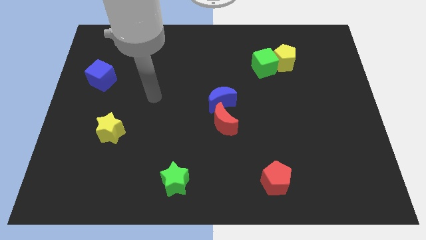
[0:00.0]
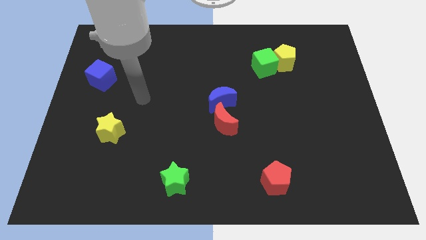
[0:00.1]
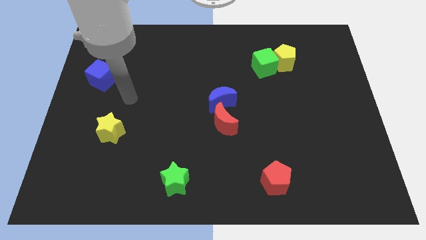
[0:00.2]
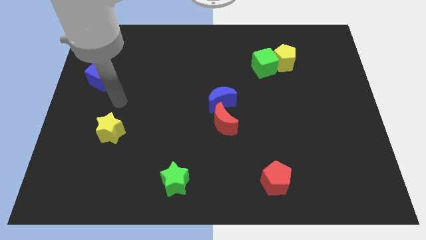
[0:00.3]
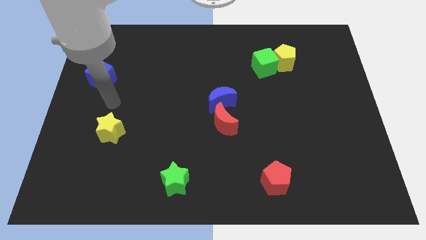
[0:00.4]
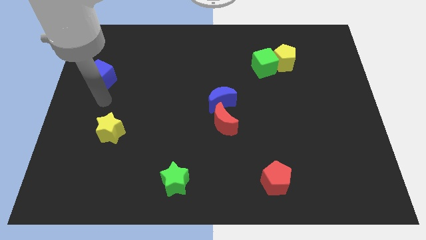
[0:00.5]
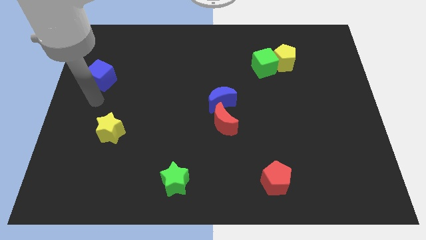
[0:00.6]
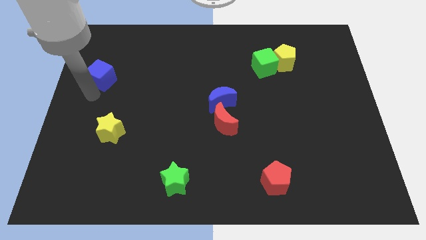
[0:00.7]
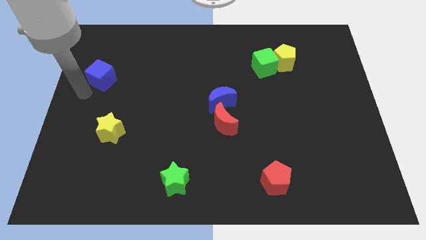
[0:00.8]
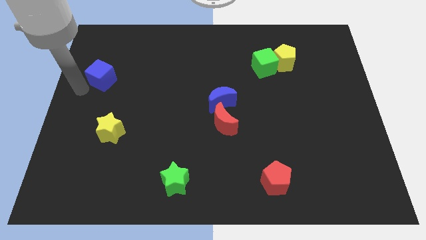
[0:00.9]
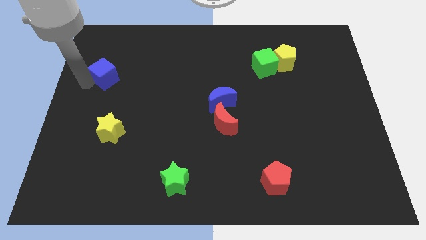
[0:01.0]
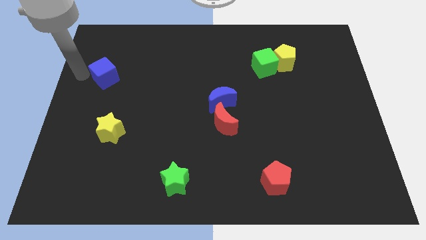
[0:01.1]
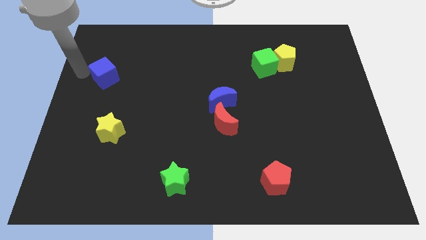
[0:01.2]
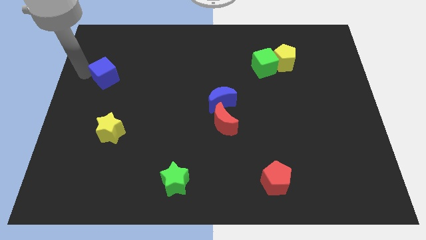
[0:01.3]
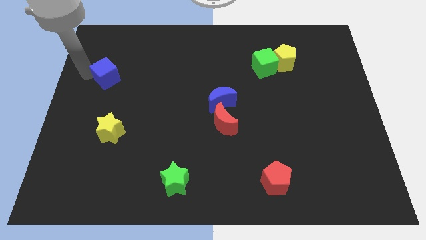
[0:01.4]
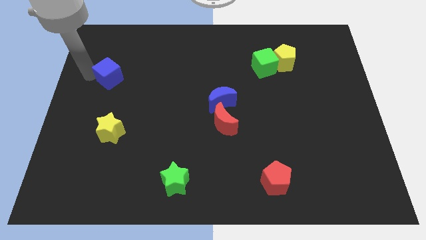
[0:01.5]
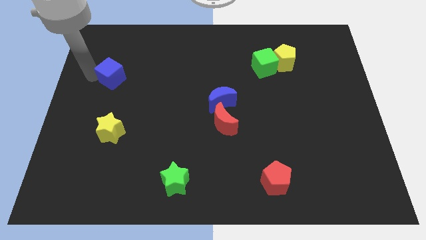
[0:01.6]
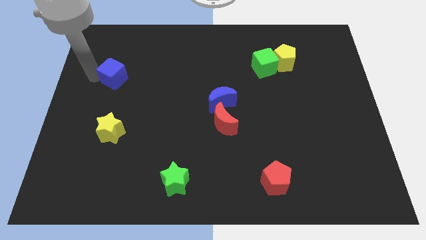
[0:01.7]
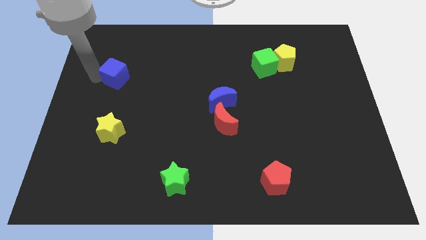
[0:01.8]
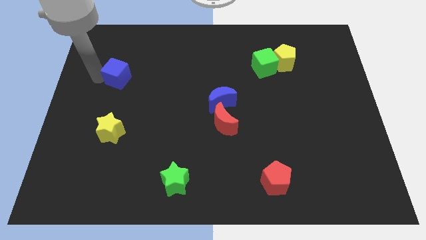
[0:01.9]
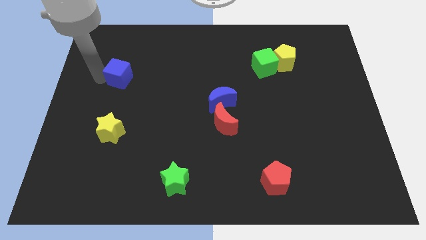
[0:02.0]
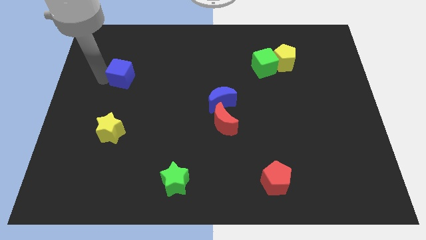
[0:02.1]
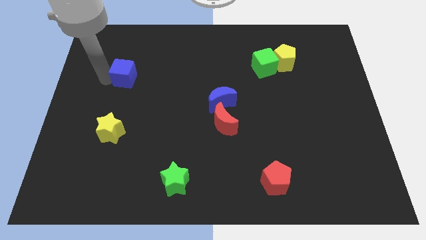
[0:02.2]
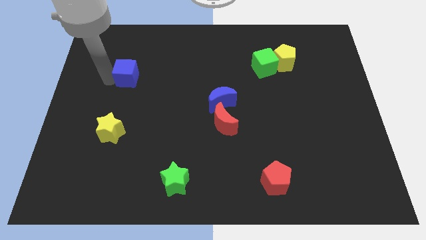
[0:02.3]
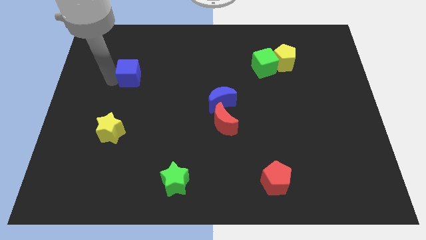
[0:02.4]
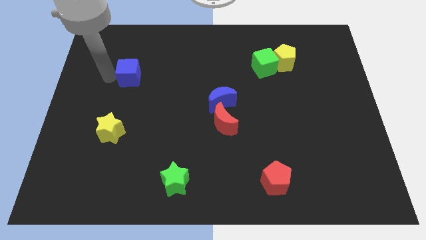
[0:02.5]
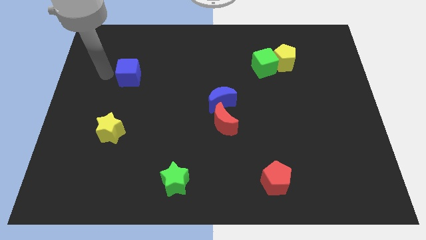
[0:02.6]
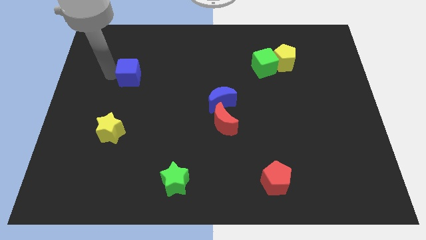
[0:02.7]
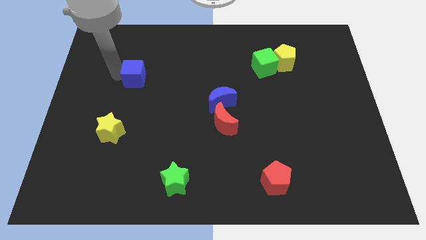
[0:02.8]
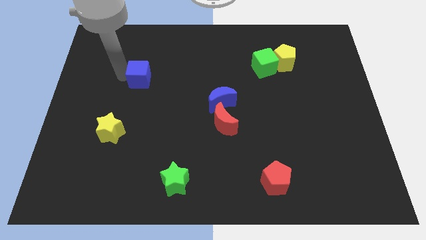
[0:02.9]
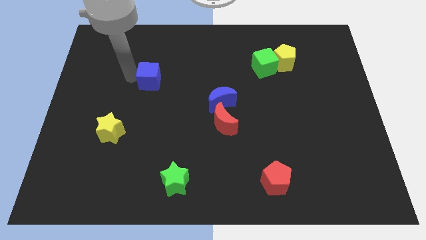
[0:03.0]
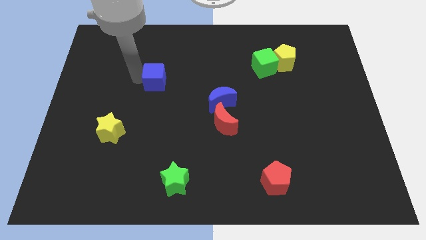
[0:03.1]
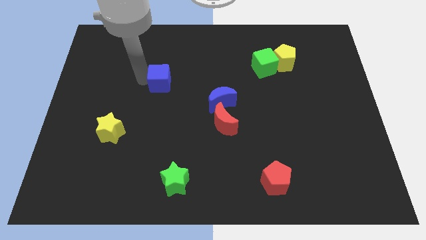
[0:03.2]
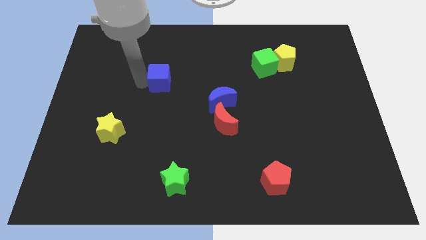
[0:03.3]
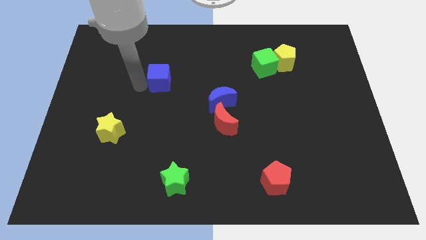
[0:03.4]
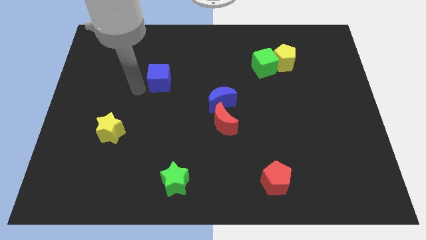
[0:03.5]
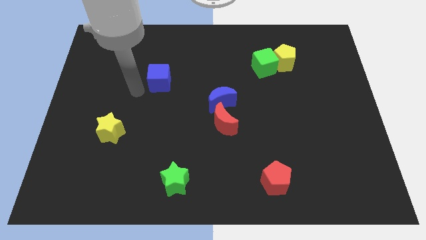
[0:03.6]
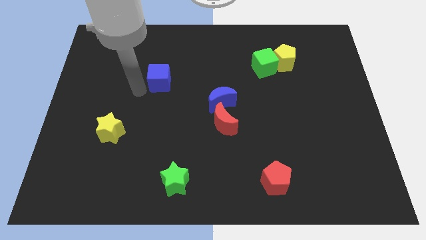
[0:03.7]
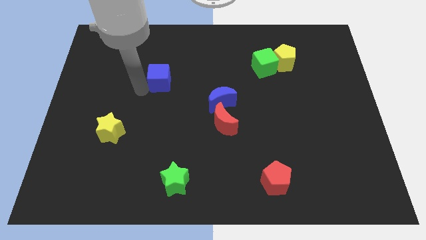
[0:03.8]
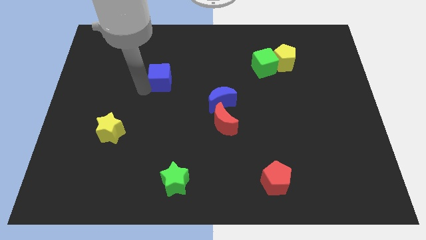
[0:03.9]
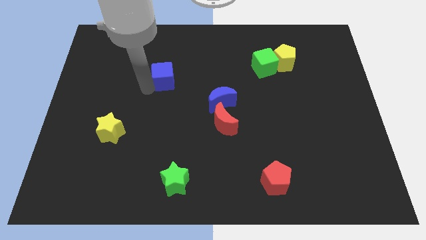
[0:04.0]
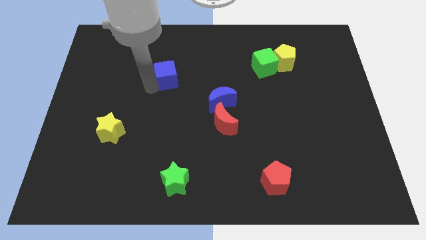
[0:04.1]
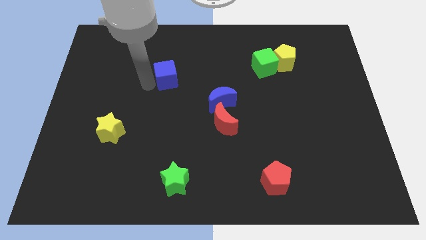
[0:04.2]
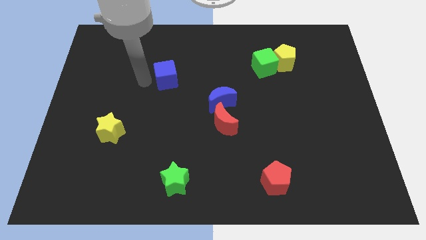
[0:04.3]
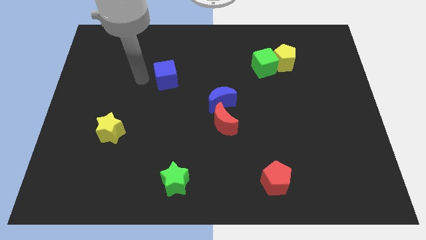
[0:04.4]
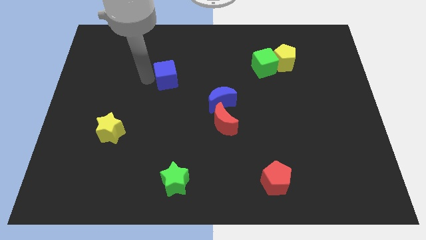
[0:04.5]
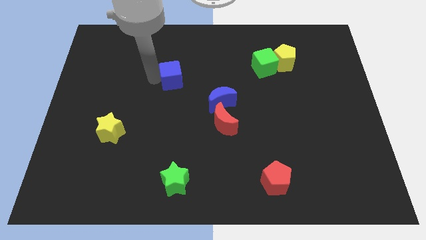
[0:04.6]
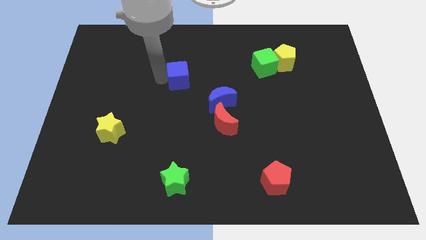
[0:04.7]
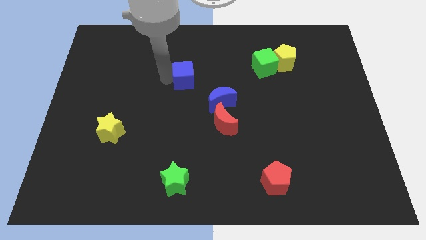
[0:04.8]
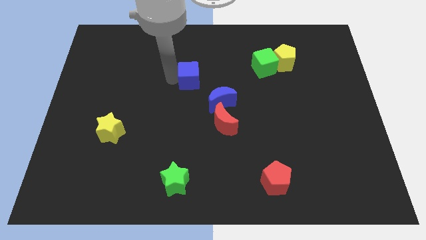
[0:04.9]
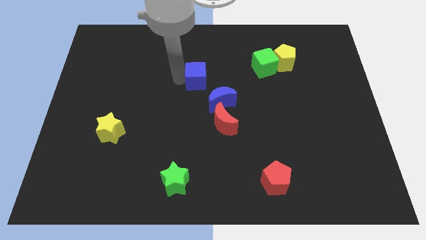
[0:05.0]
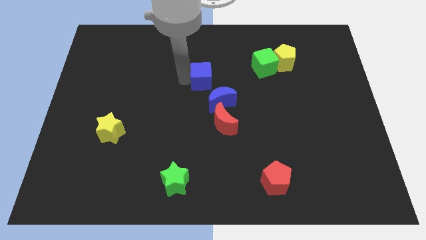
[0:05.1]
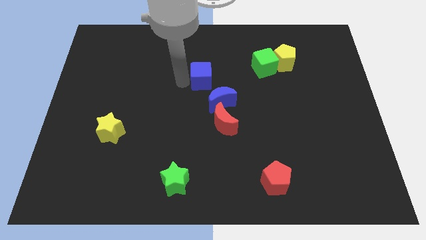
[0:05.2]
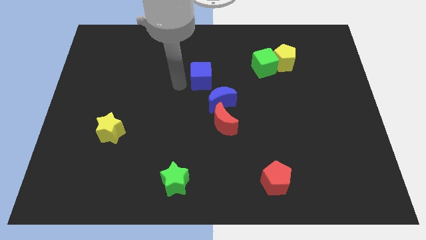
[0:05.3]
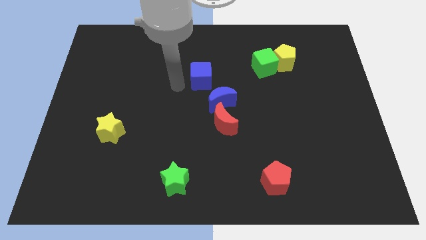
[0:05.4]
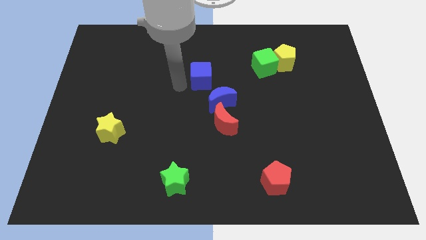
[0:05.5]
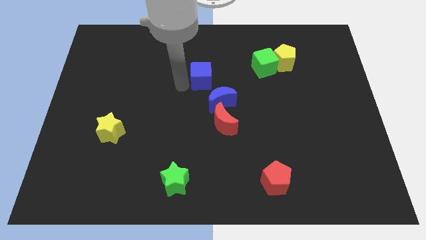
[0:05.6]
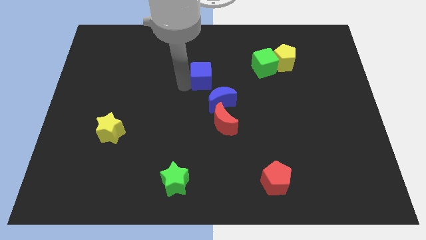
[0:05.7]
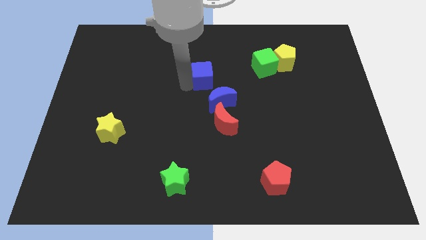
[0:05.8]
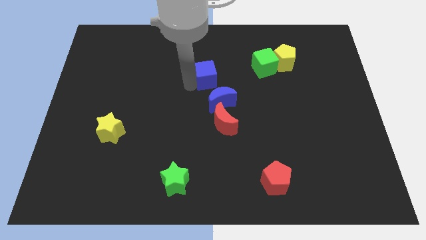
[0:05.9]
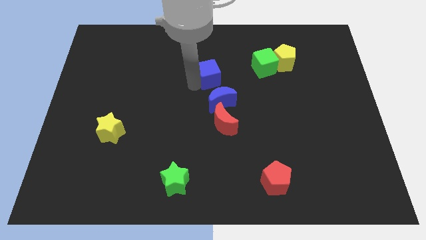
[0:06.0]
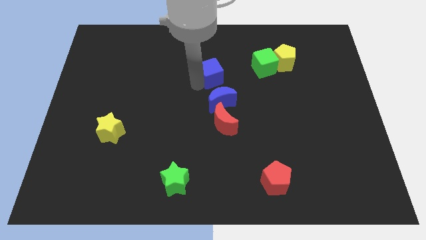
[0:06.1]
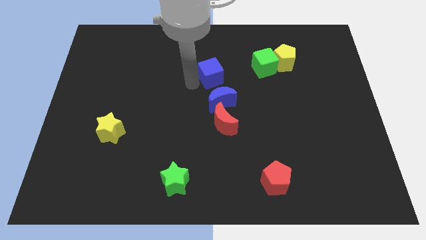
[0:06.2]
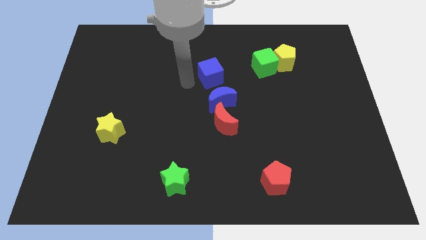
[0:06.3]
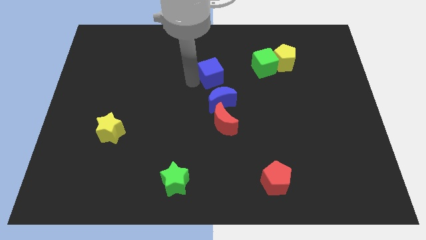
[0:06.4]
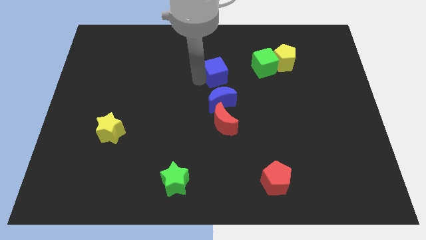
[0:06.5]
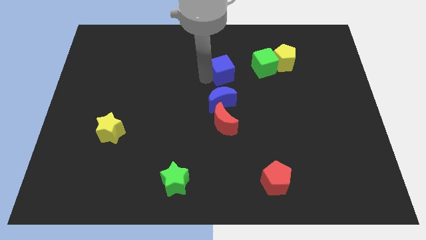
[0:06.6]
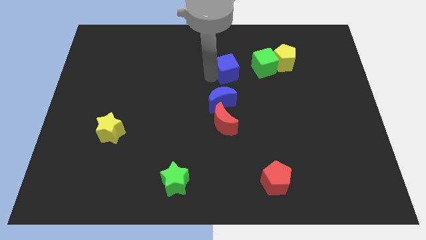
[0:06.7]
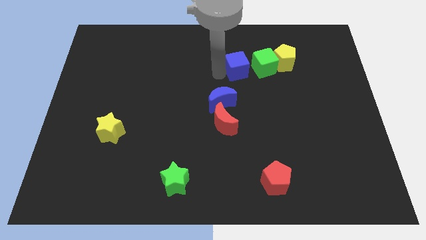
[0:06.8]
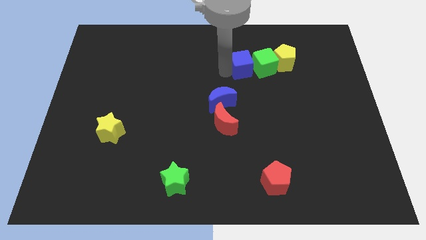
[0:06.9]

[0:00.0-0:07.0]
move the blue cube towards the green cube
